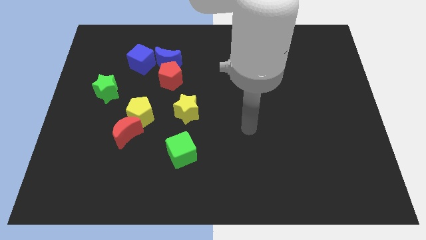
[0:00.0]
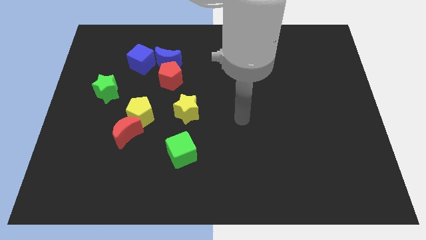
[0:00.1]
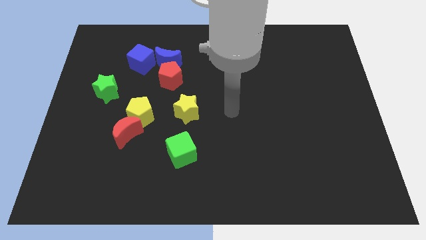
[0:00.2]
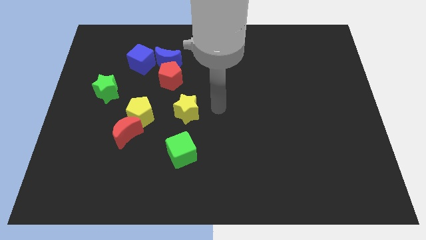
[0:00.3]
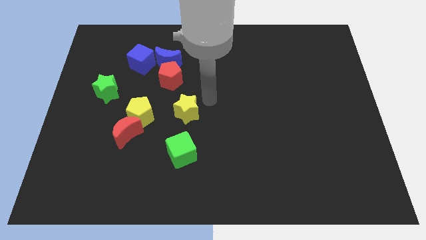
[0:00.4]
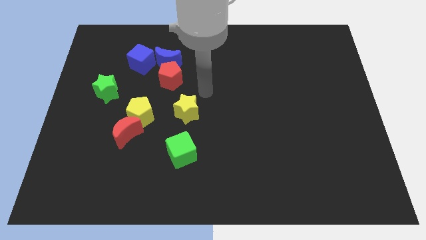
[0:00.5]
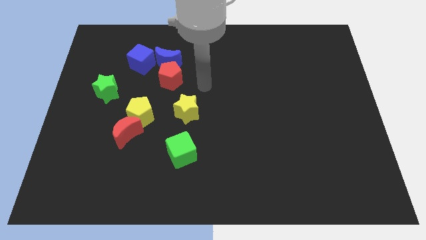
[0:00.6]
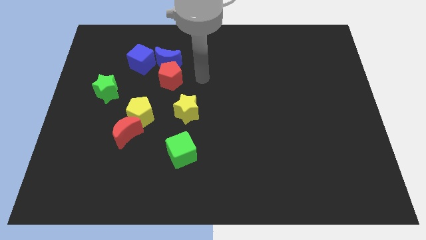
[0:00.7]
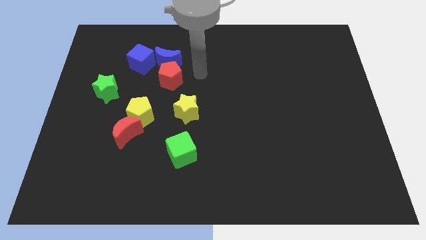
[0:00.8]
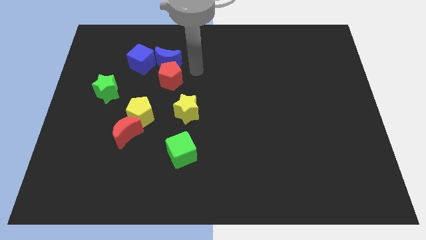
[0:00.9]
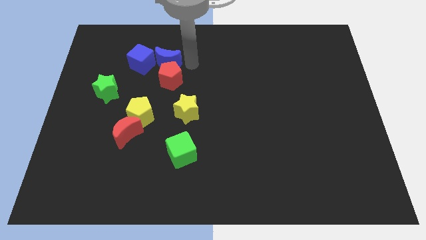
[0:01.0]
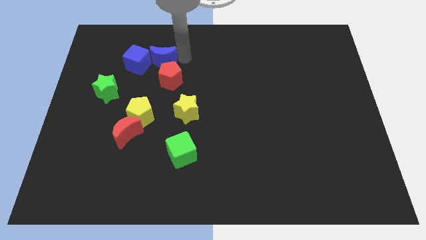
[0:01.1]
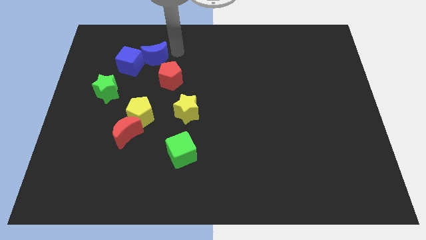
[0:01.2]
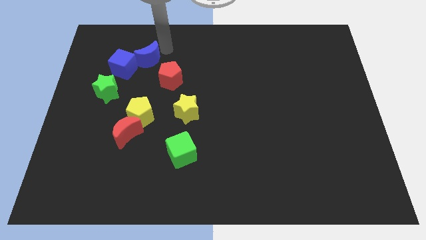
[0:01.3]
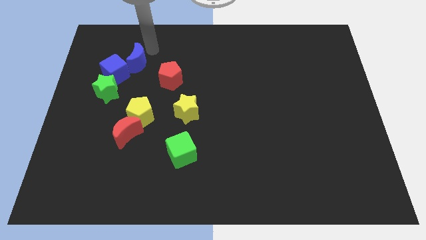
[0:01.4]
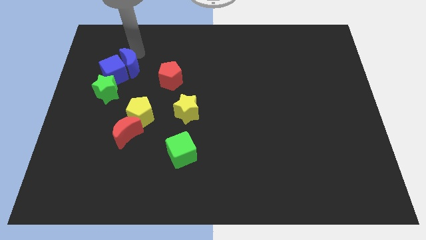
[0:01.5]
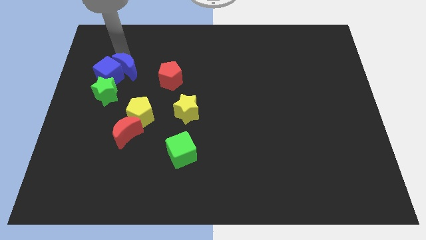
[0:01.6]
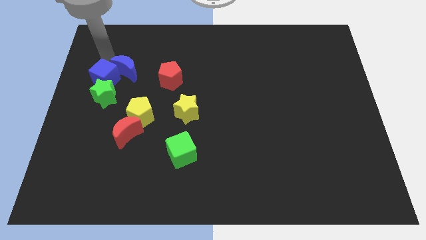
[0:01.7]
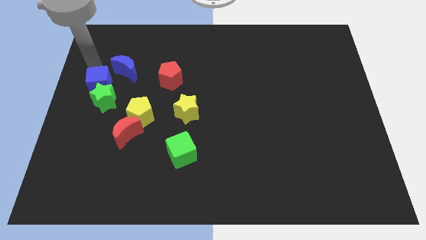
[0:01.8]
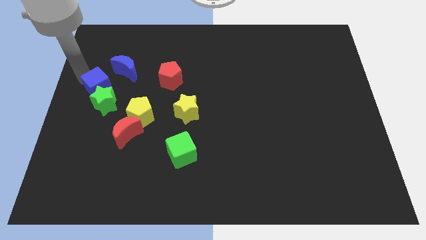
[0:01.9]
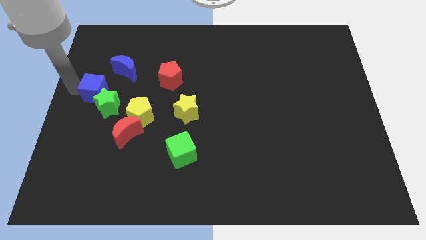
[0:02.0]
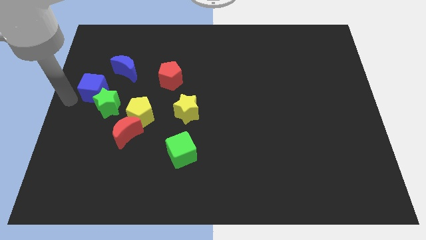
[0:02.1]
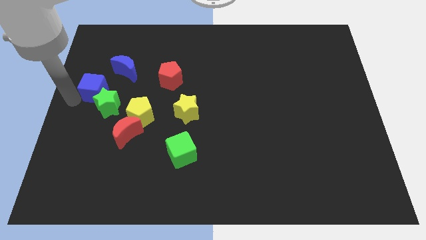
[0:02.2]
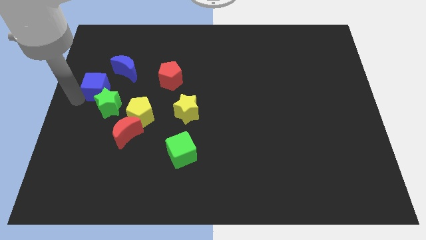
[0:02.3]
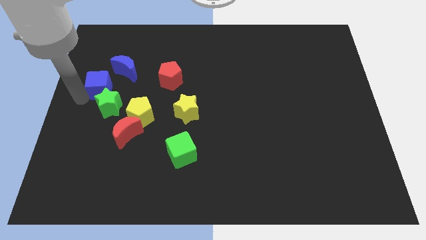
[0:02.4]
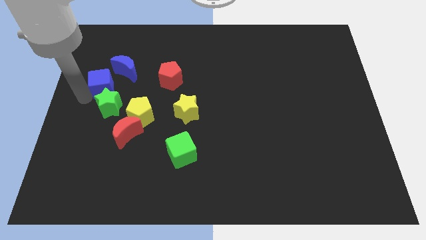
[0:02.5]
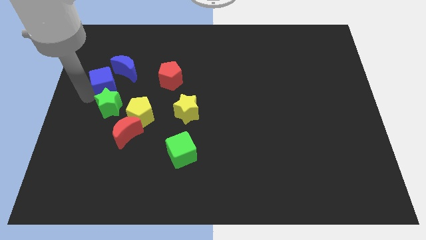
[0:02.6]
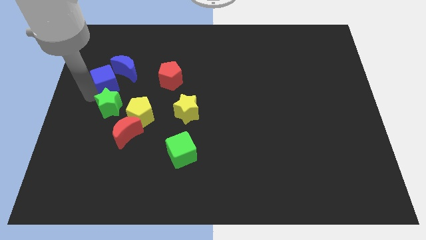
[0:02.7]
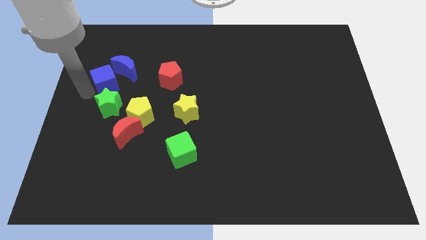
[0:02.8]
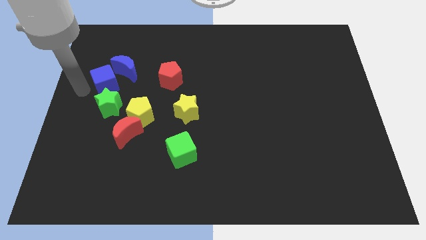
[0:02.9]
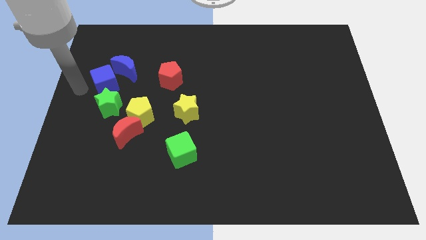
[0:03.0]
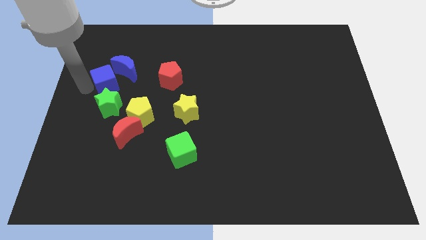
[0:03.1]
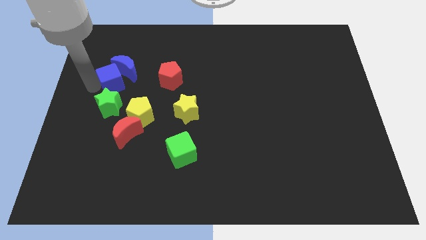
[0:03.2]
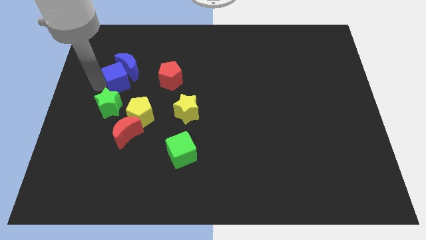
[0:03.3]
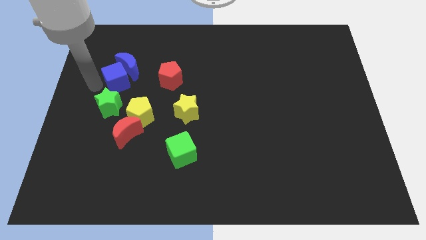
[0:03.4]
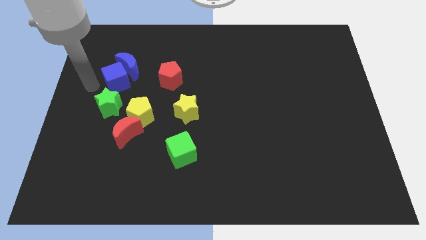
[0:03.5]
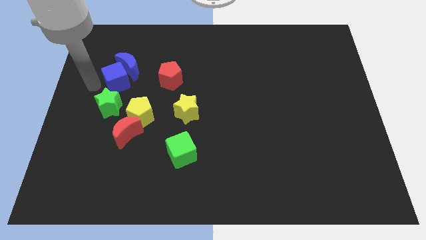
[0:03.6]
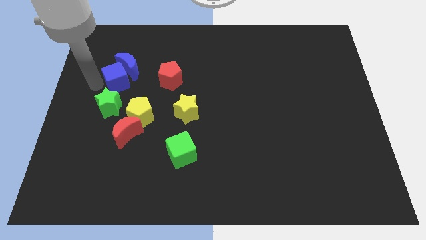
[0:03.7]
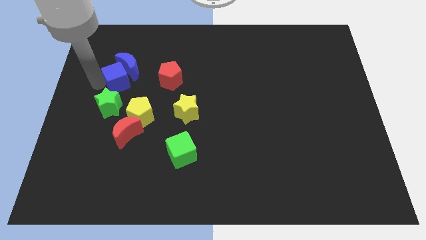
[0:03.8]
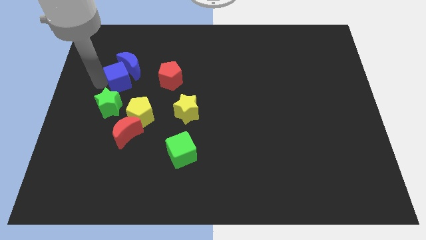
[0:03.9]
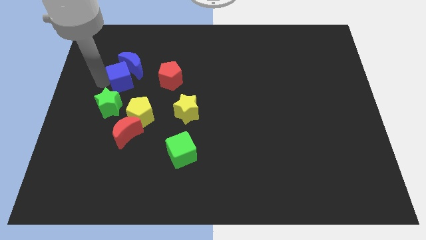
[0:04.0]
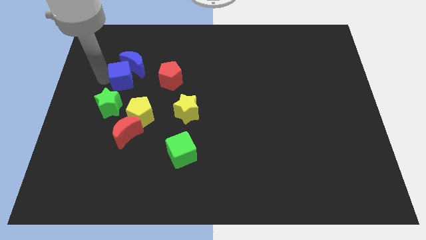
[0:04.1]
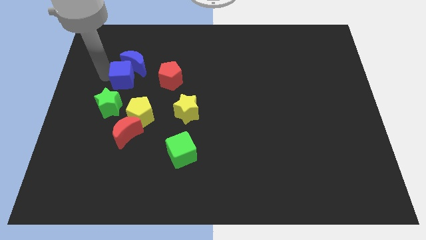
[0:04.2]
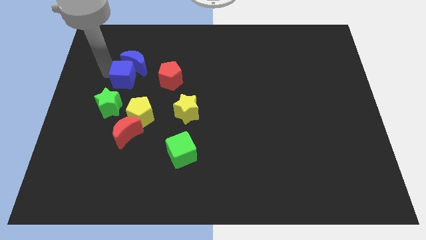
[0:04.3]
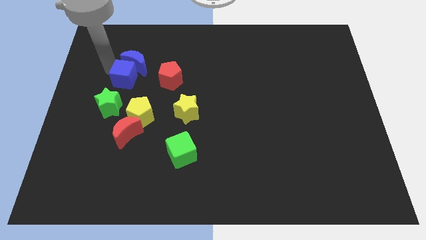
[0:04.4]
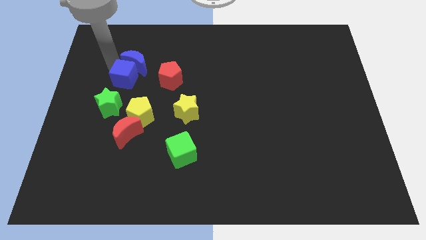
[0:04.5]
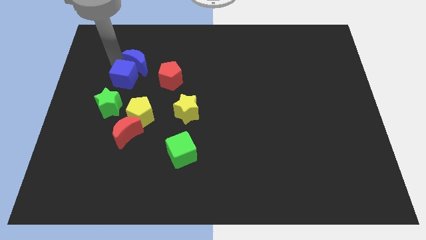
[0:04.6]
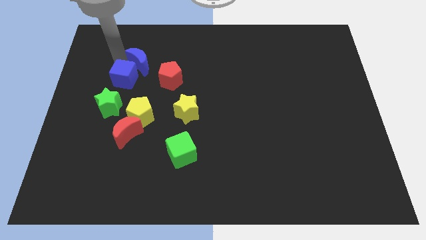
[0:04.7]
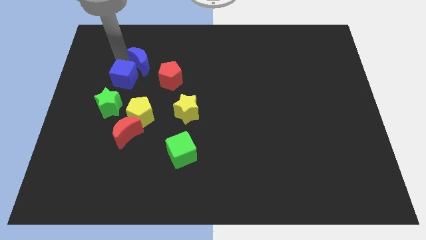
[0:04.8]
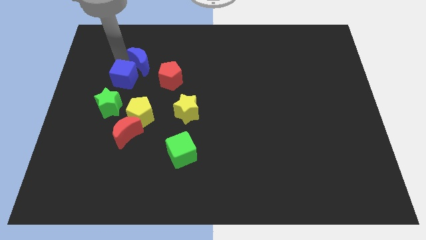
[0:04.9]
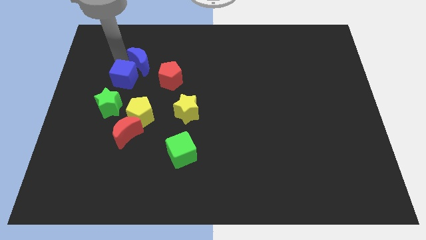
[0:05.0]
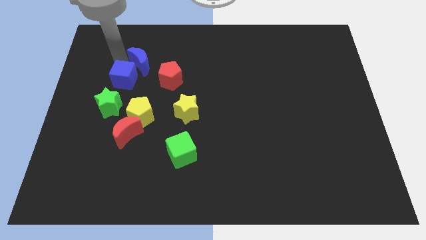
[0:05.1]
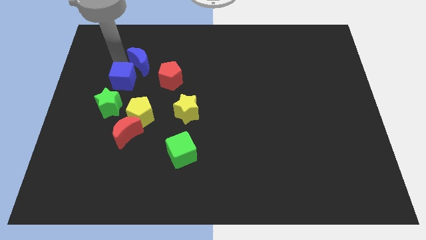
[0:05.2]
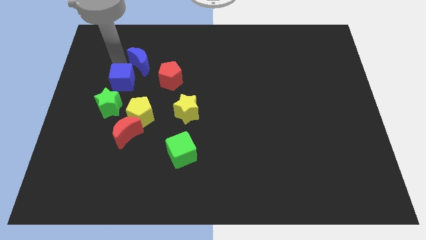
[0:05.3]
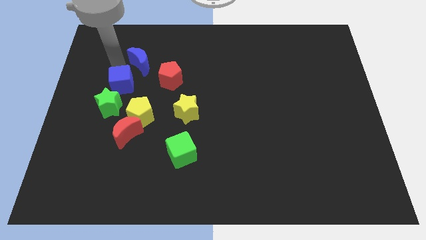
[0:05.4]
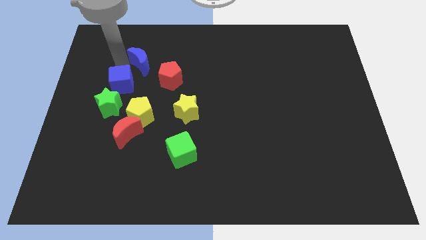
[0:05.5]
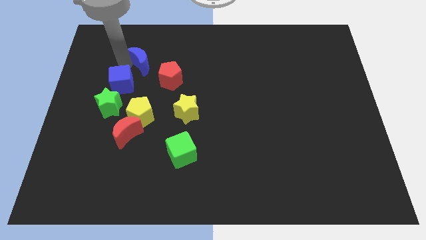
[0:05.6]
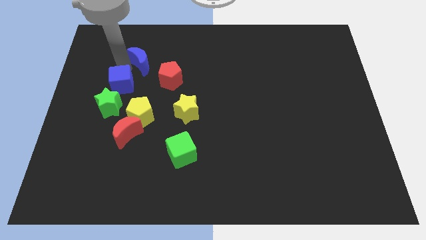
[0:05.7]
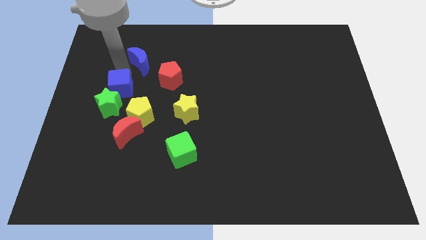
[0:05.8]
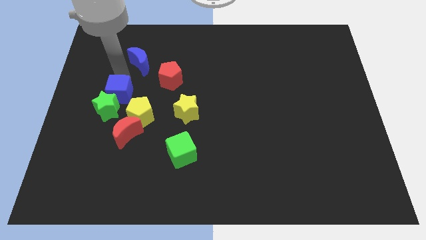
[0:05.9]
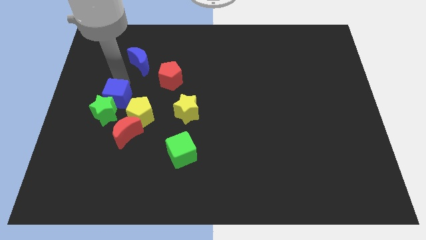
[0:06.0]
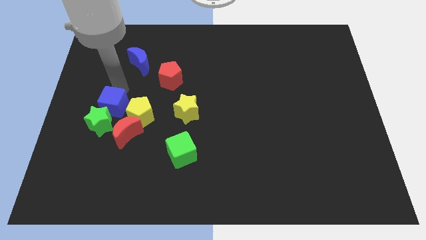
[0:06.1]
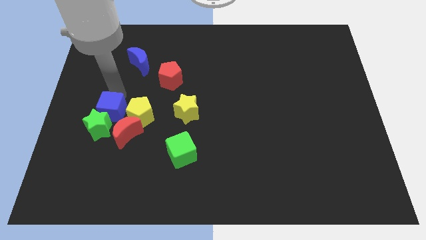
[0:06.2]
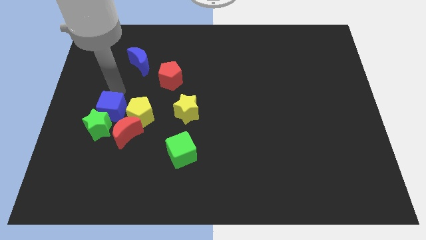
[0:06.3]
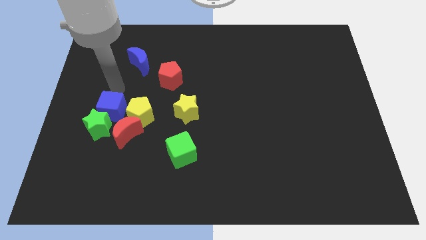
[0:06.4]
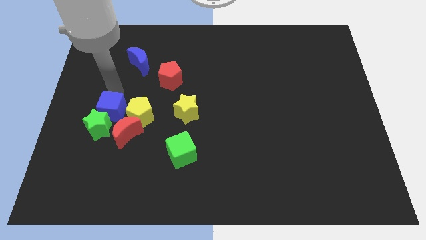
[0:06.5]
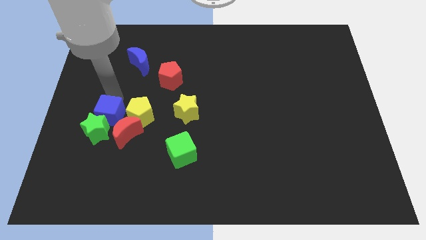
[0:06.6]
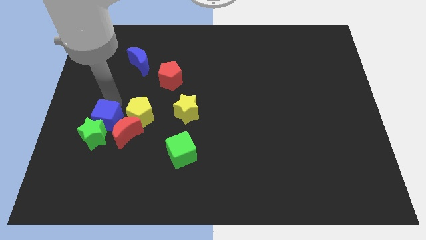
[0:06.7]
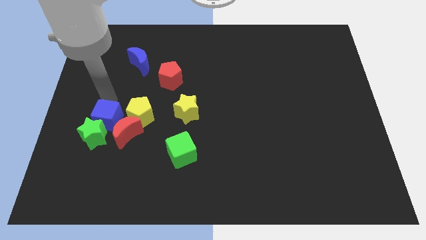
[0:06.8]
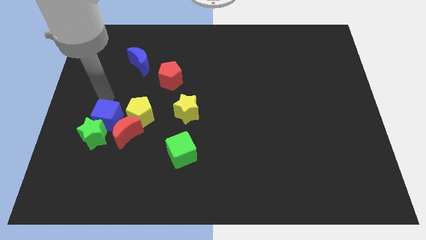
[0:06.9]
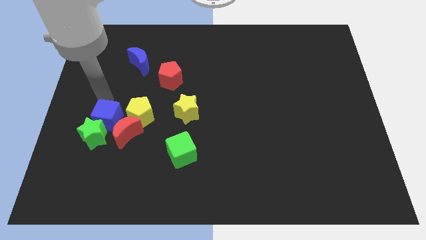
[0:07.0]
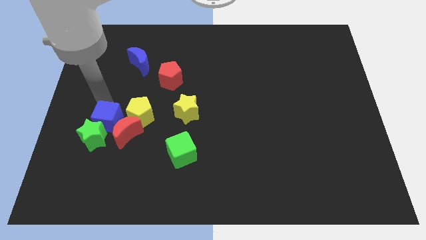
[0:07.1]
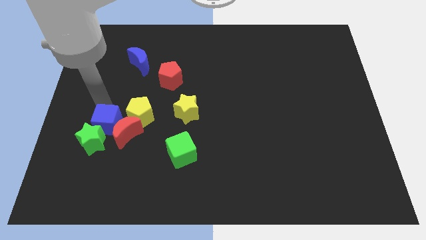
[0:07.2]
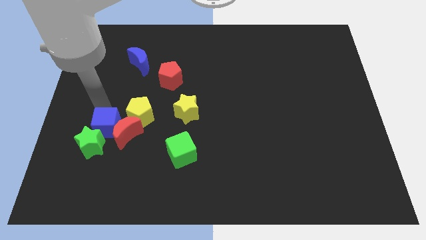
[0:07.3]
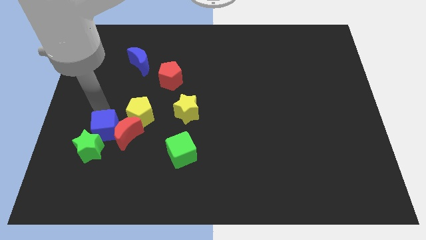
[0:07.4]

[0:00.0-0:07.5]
slide the blue cube down

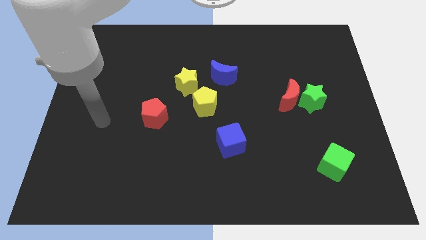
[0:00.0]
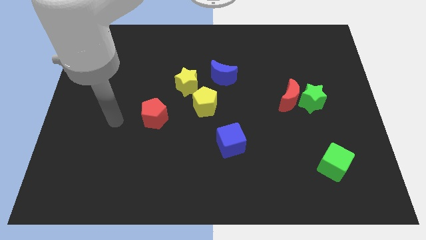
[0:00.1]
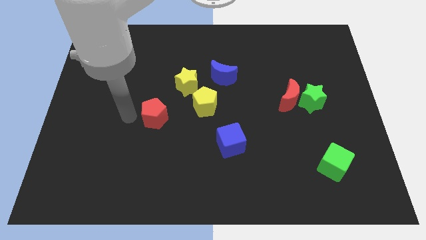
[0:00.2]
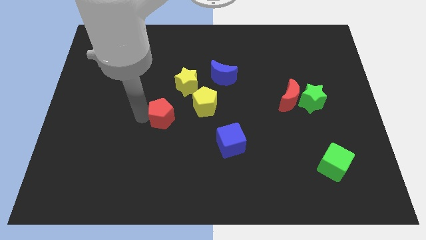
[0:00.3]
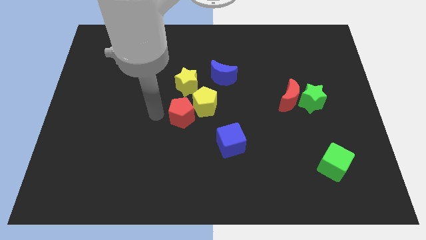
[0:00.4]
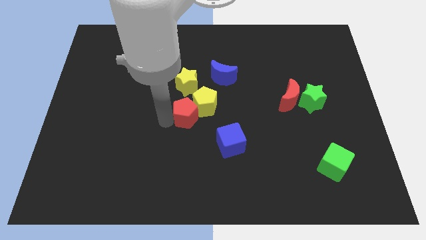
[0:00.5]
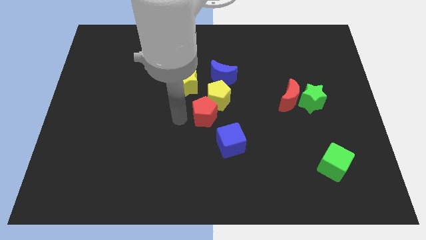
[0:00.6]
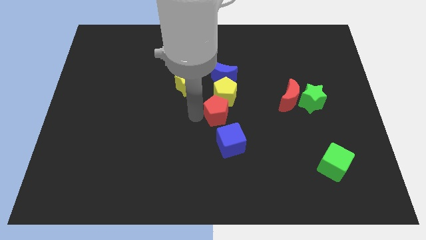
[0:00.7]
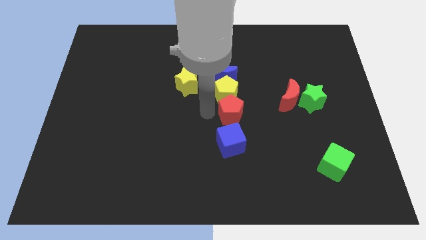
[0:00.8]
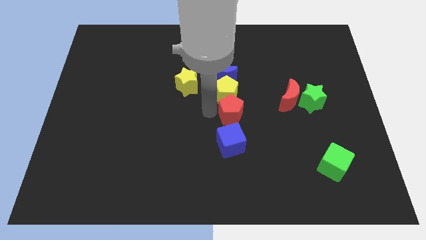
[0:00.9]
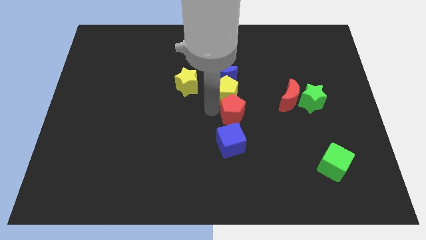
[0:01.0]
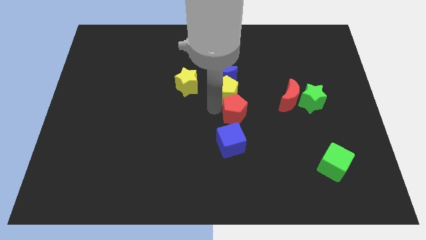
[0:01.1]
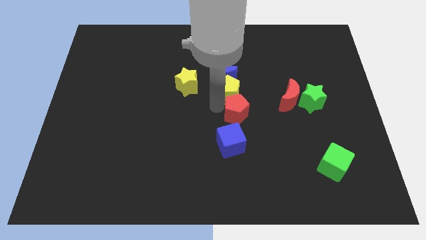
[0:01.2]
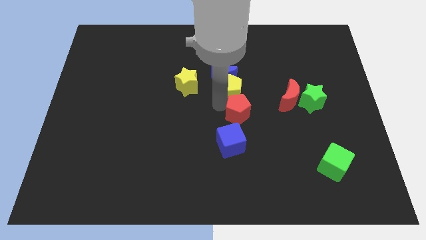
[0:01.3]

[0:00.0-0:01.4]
push the yellow pentagon somewhat up and to the right diagonally
